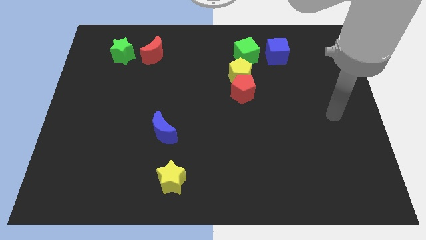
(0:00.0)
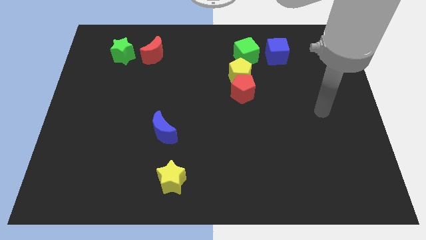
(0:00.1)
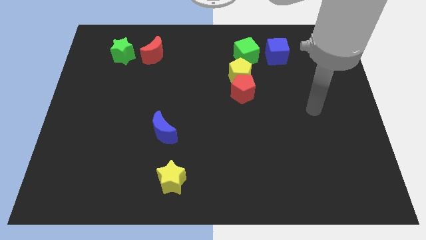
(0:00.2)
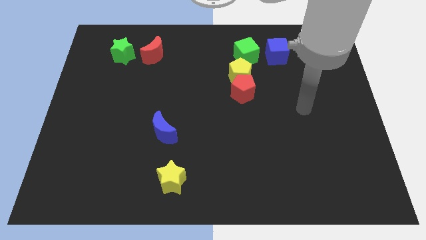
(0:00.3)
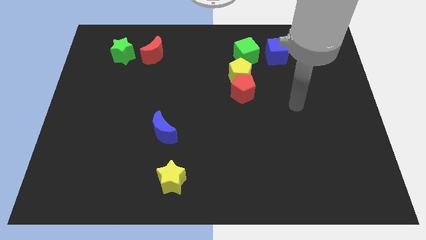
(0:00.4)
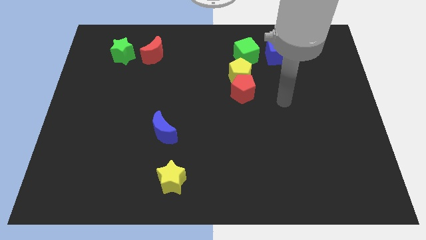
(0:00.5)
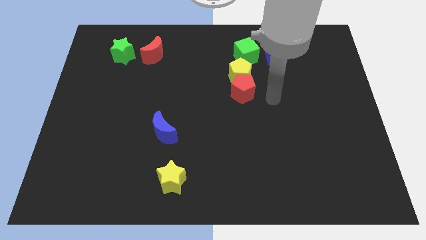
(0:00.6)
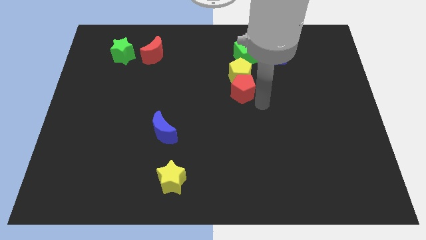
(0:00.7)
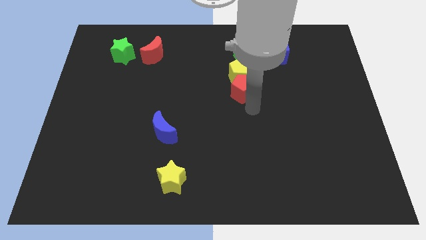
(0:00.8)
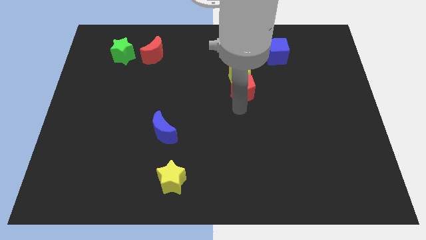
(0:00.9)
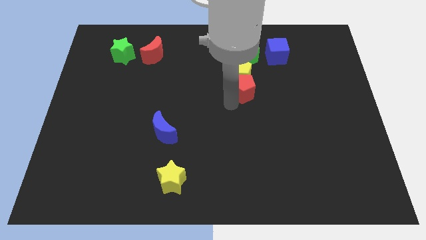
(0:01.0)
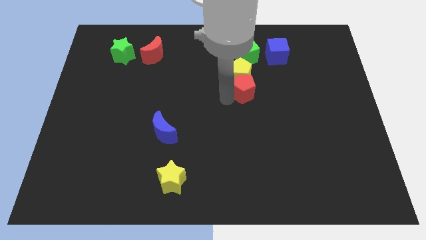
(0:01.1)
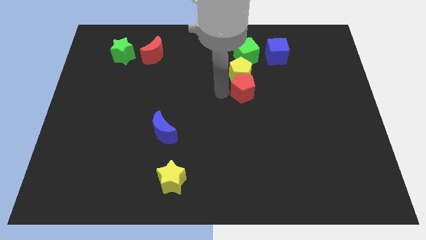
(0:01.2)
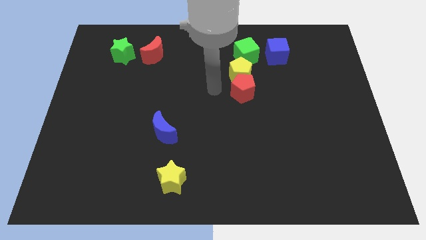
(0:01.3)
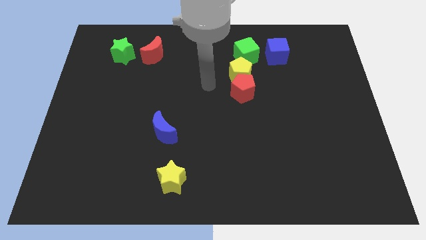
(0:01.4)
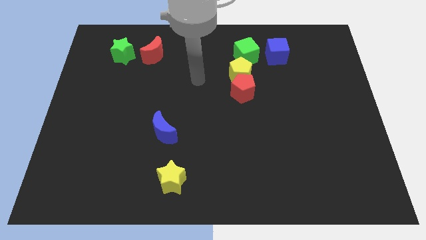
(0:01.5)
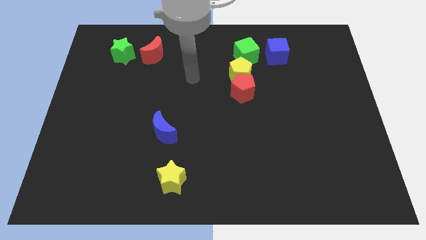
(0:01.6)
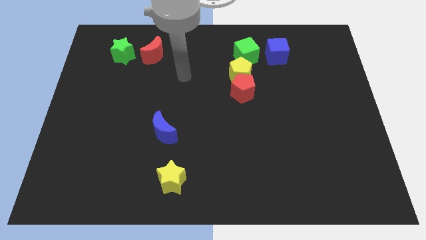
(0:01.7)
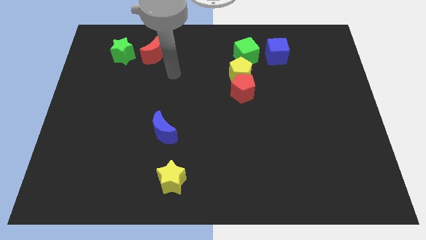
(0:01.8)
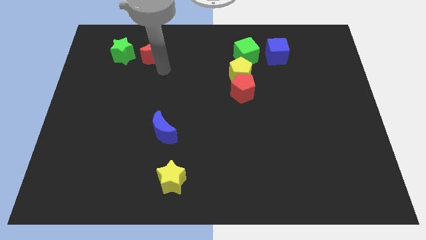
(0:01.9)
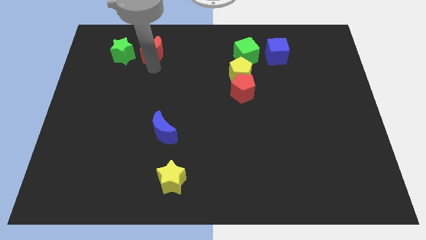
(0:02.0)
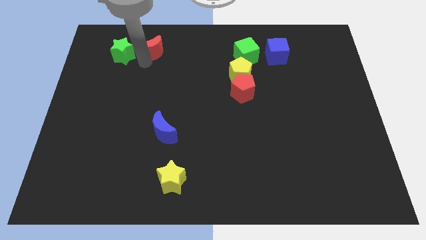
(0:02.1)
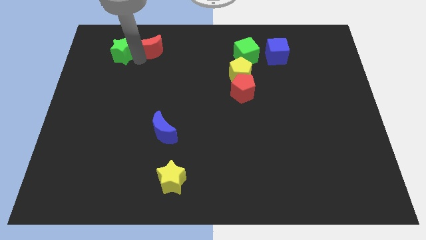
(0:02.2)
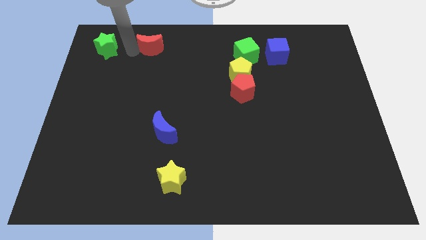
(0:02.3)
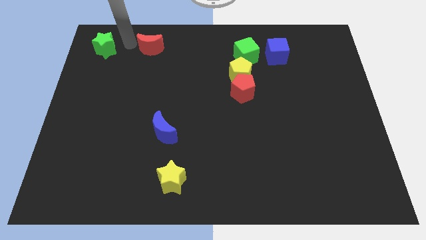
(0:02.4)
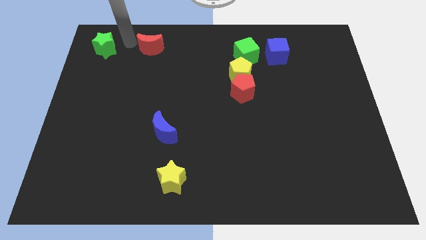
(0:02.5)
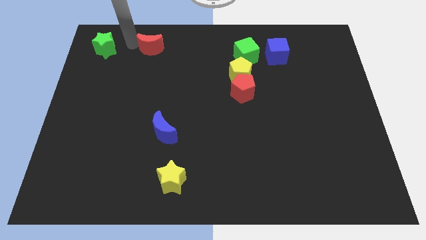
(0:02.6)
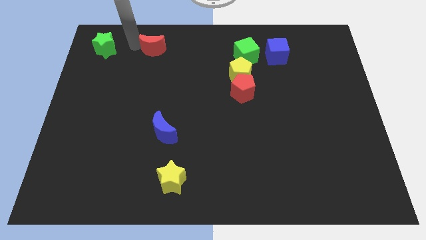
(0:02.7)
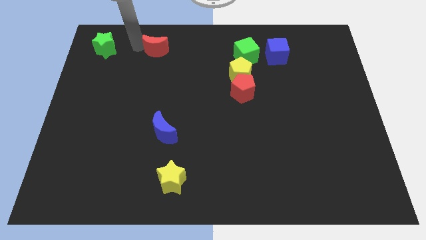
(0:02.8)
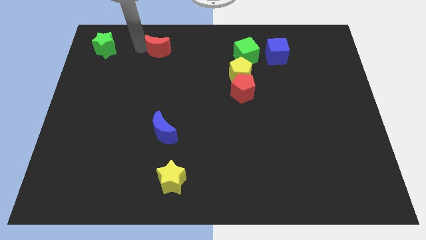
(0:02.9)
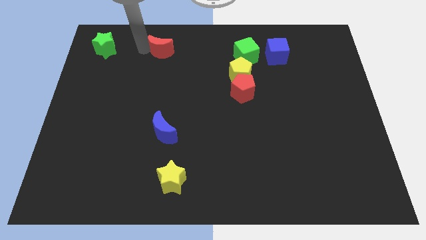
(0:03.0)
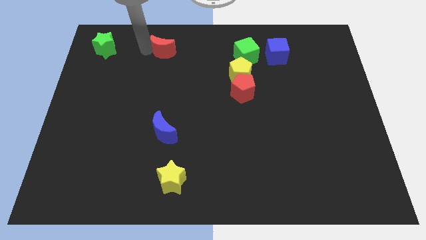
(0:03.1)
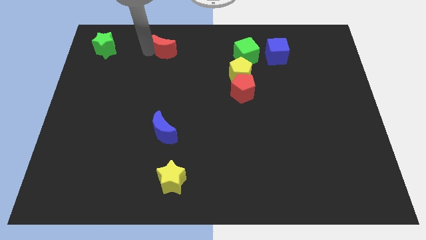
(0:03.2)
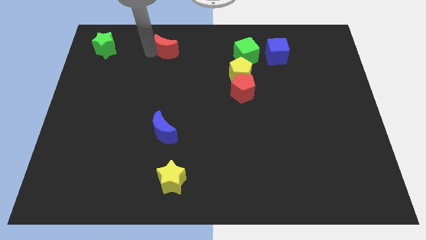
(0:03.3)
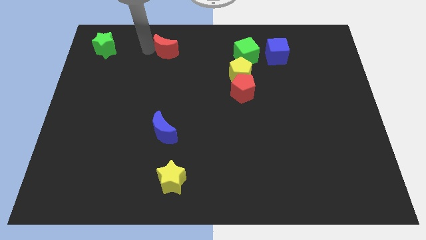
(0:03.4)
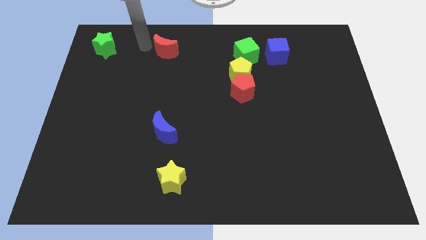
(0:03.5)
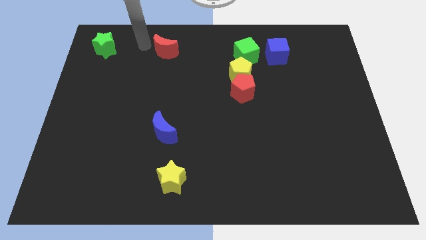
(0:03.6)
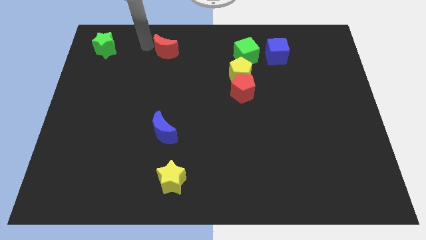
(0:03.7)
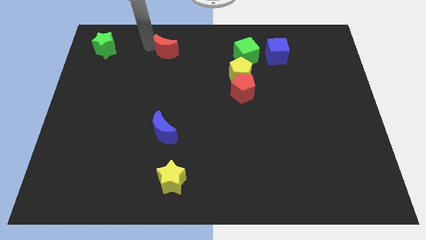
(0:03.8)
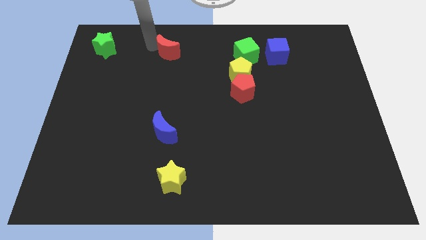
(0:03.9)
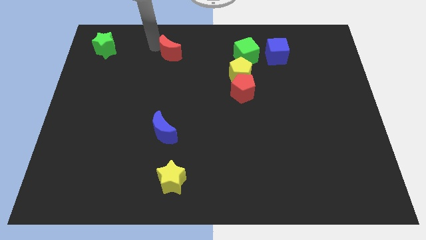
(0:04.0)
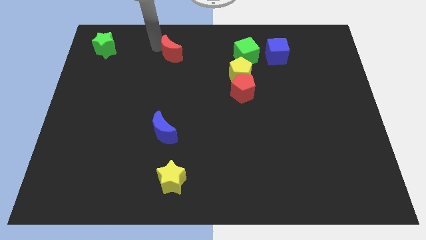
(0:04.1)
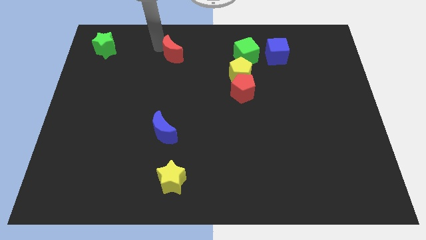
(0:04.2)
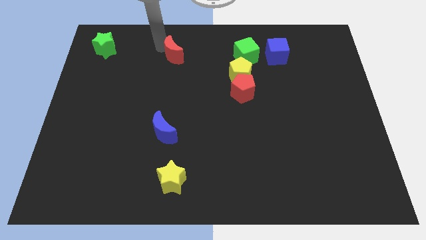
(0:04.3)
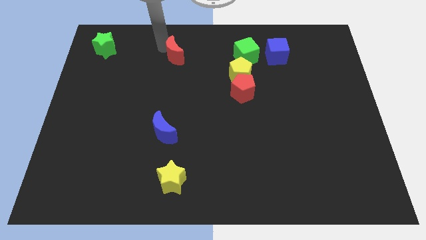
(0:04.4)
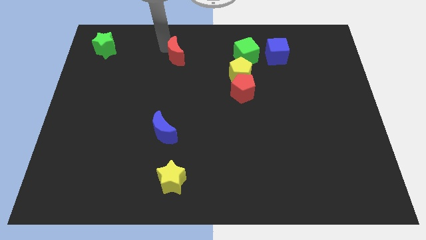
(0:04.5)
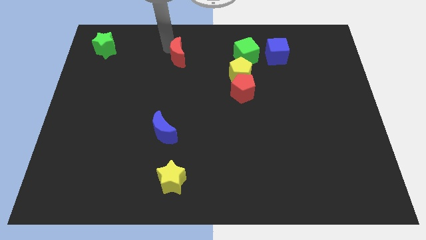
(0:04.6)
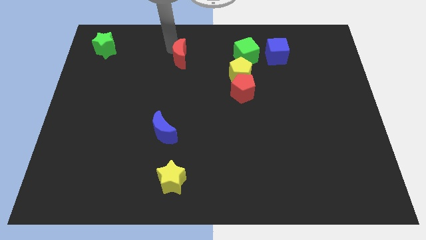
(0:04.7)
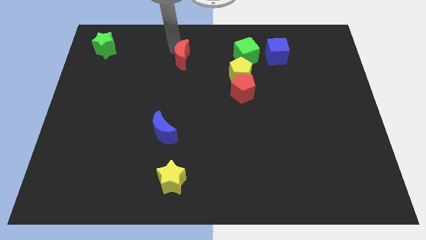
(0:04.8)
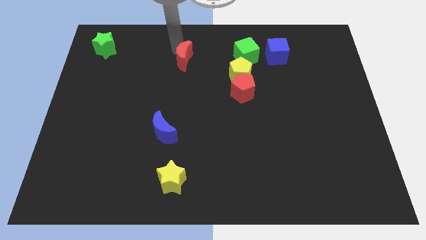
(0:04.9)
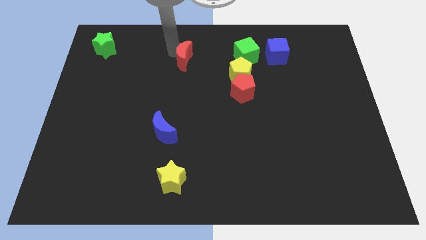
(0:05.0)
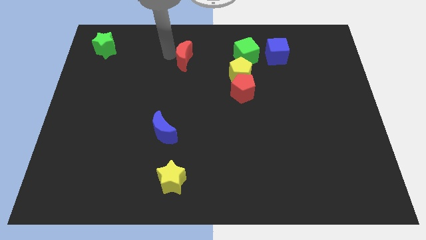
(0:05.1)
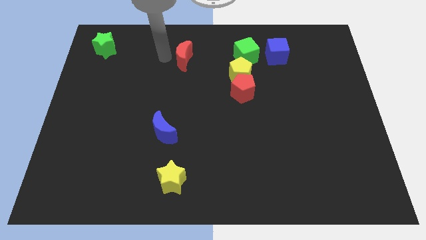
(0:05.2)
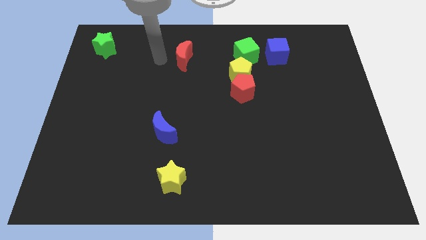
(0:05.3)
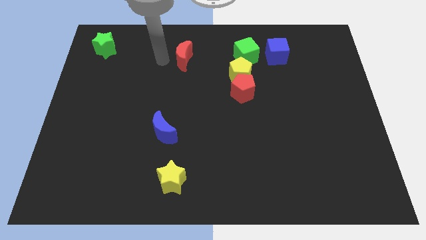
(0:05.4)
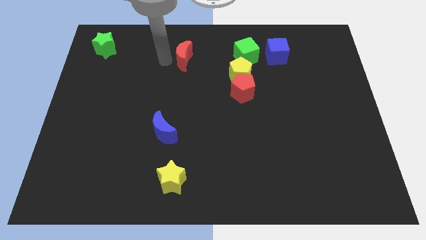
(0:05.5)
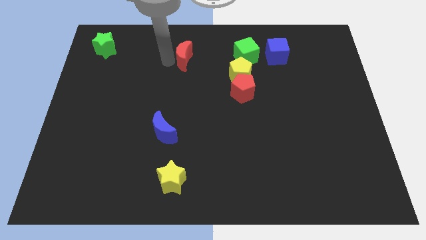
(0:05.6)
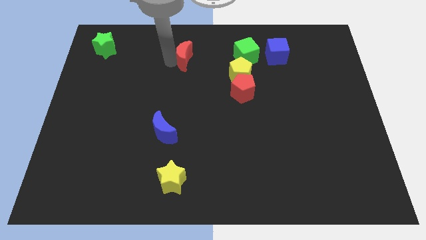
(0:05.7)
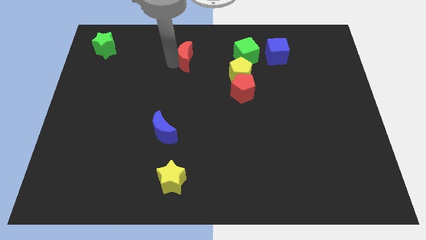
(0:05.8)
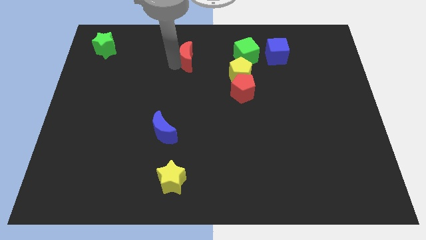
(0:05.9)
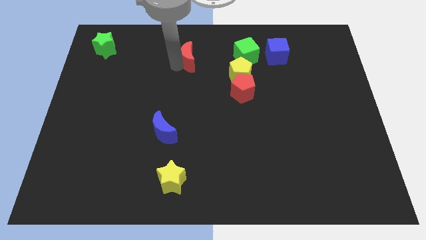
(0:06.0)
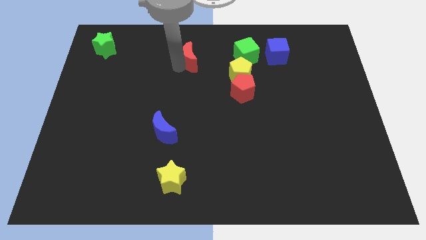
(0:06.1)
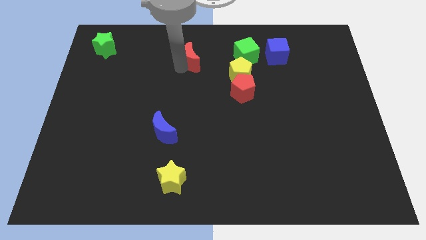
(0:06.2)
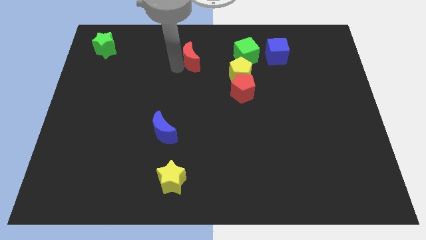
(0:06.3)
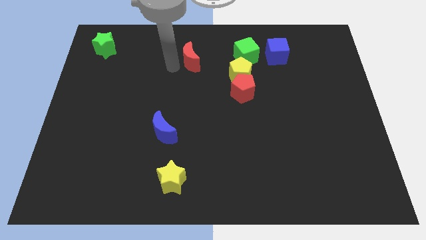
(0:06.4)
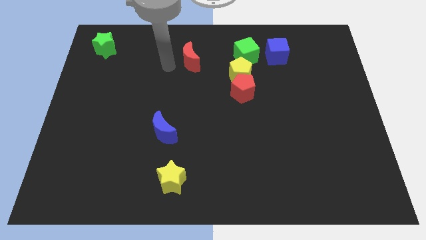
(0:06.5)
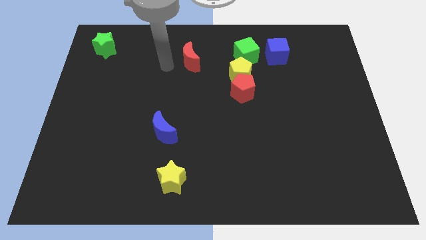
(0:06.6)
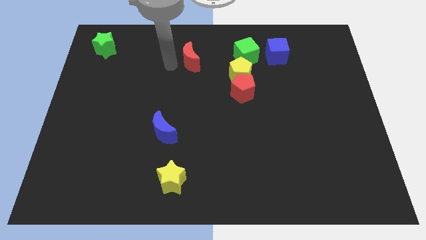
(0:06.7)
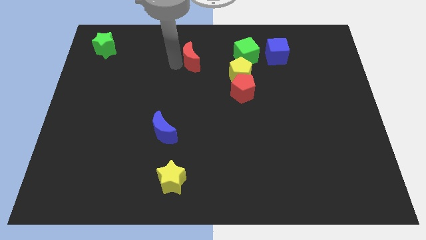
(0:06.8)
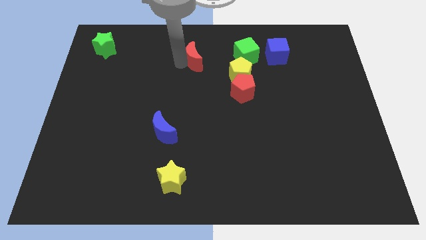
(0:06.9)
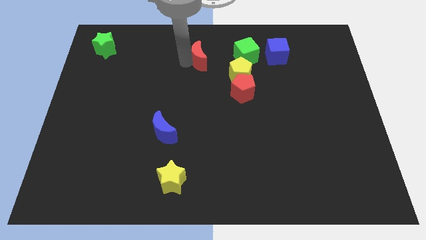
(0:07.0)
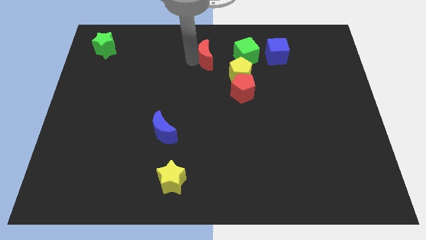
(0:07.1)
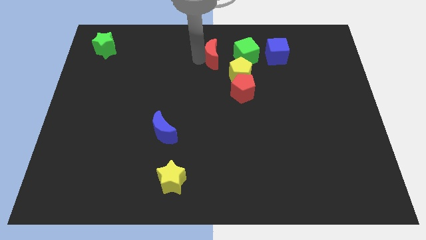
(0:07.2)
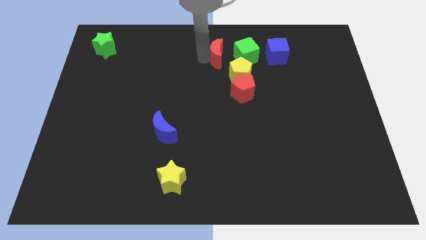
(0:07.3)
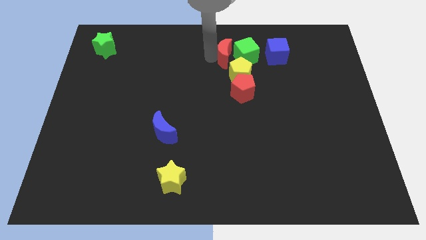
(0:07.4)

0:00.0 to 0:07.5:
slide the red moon next to the green cube
